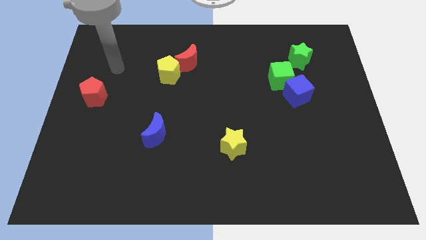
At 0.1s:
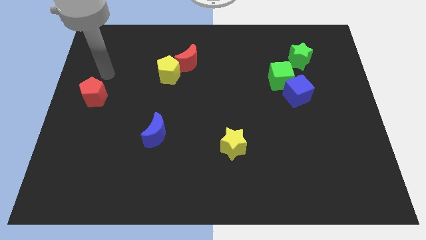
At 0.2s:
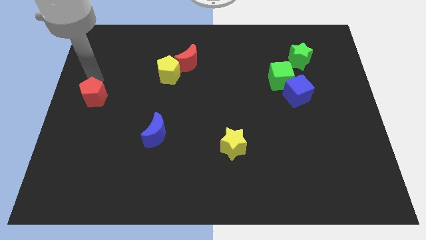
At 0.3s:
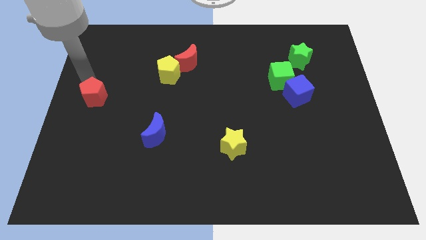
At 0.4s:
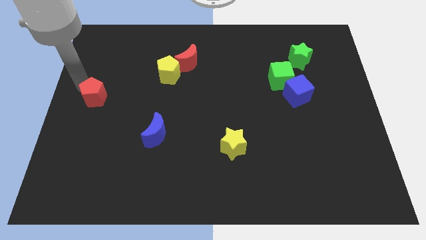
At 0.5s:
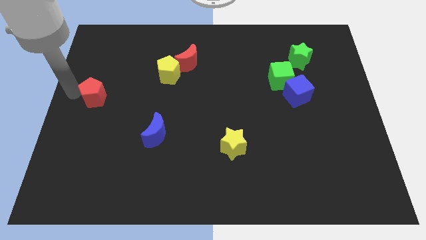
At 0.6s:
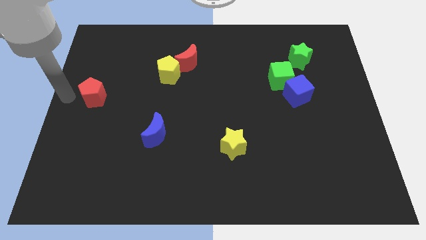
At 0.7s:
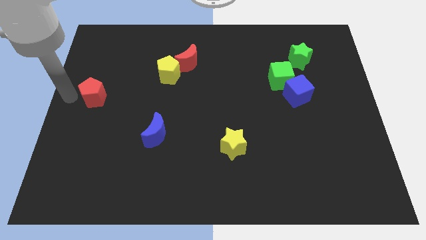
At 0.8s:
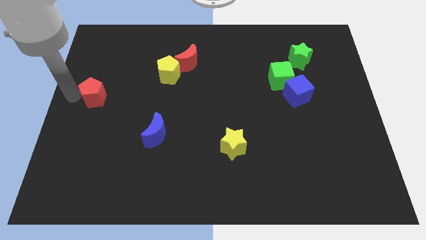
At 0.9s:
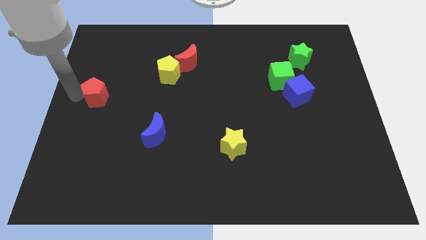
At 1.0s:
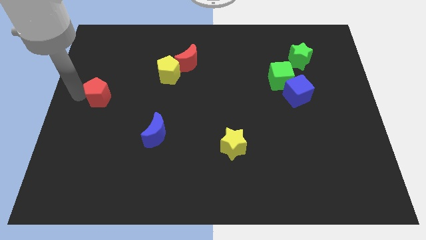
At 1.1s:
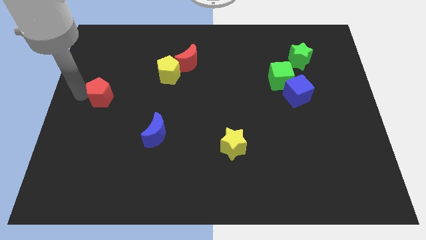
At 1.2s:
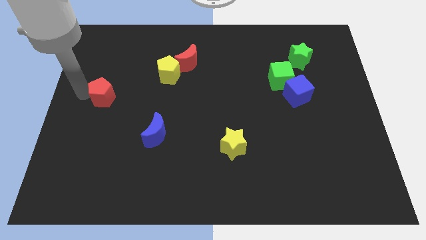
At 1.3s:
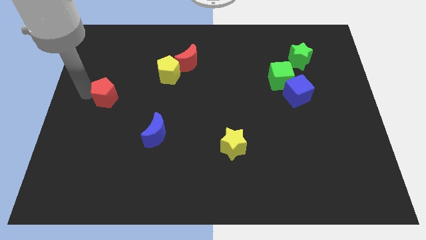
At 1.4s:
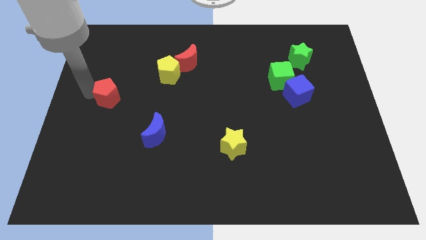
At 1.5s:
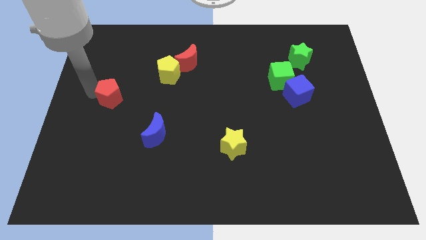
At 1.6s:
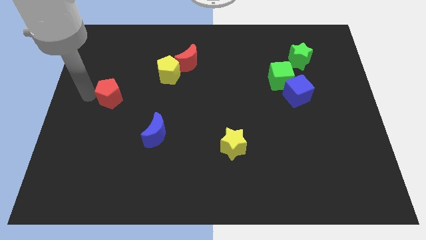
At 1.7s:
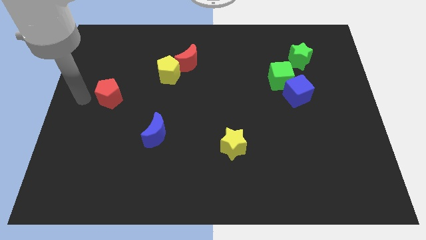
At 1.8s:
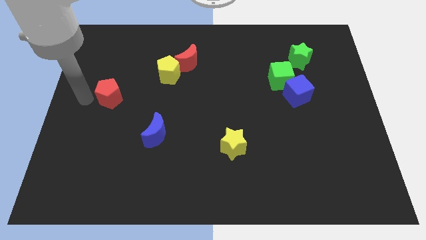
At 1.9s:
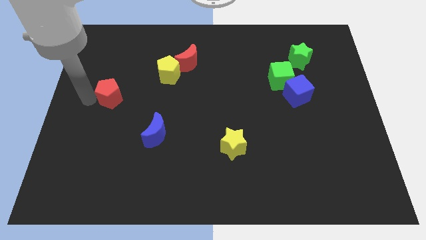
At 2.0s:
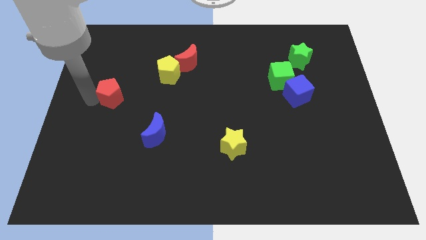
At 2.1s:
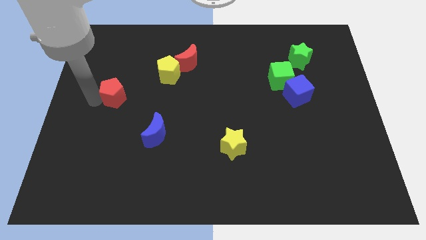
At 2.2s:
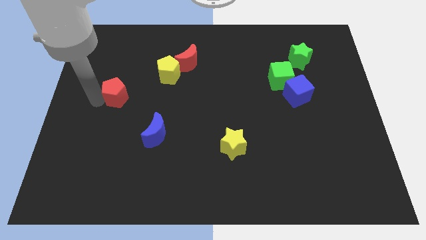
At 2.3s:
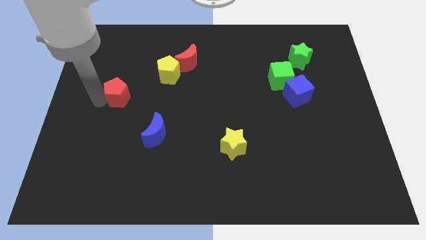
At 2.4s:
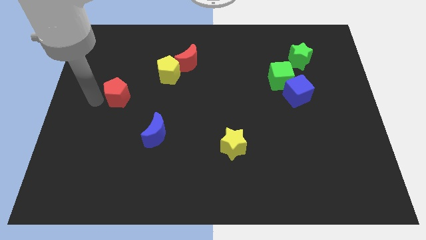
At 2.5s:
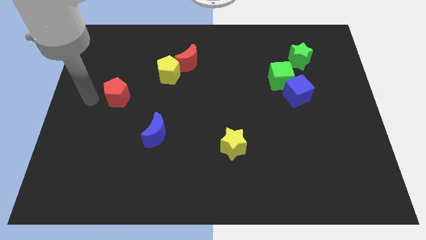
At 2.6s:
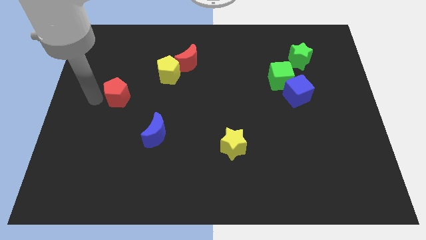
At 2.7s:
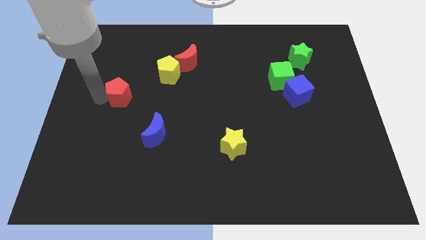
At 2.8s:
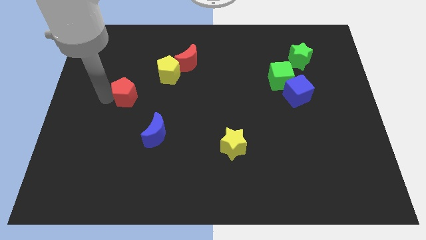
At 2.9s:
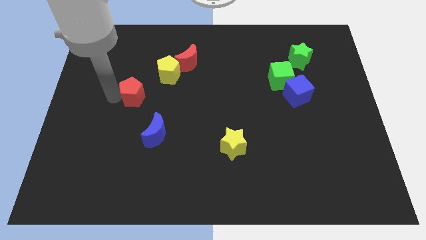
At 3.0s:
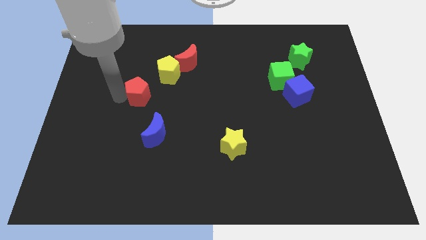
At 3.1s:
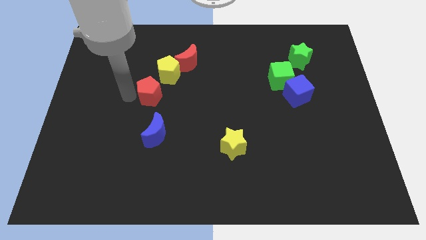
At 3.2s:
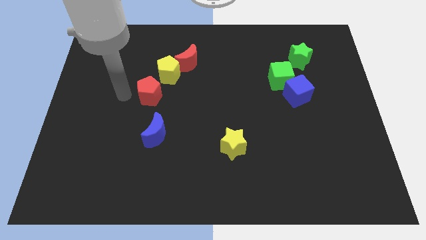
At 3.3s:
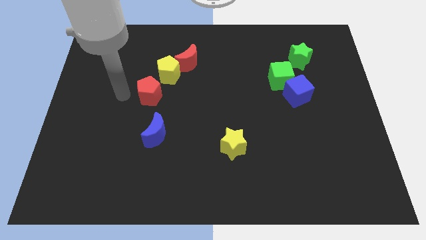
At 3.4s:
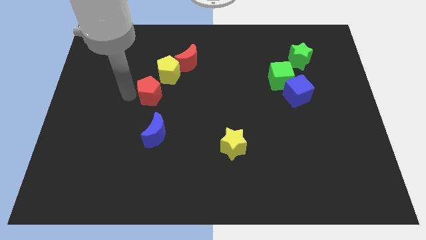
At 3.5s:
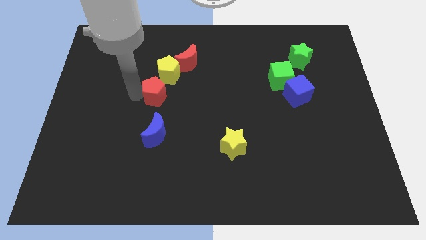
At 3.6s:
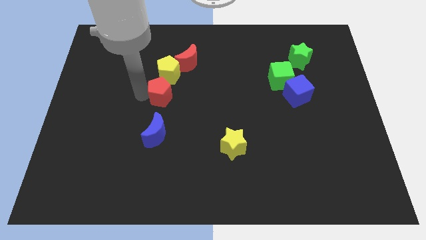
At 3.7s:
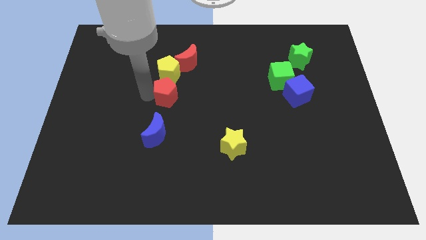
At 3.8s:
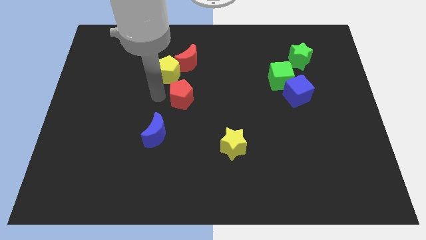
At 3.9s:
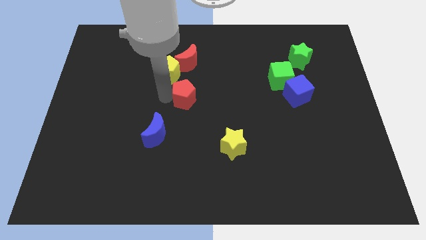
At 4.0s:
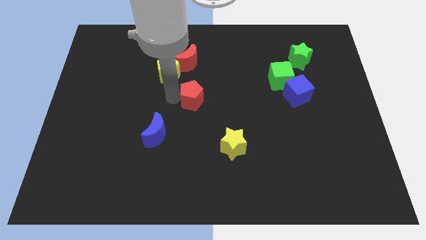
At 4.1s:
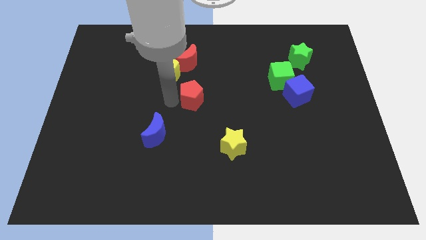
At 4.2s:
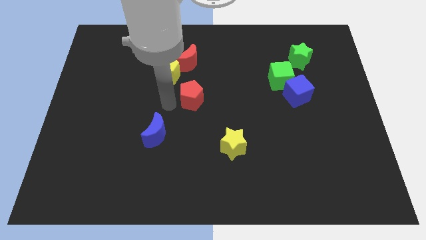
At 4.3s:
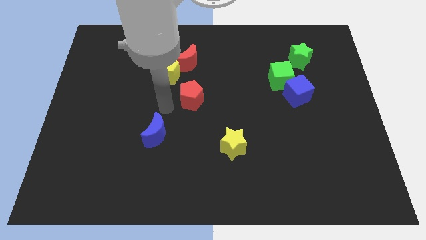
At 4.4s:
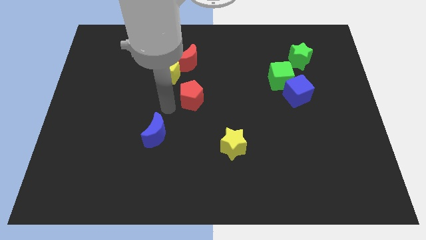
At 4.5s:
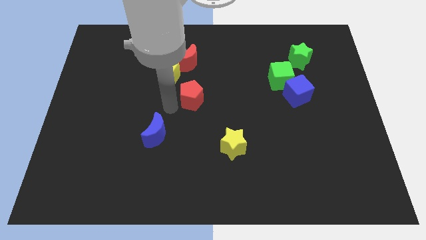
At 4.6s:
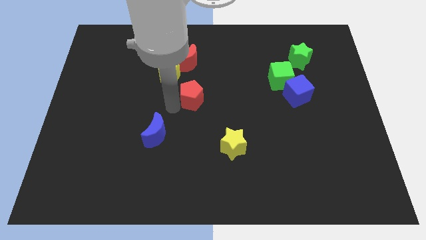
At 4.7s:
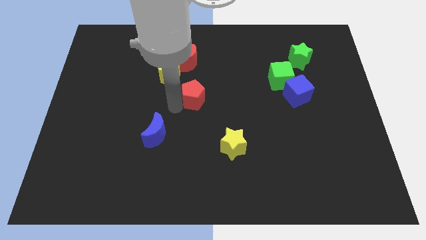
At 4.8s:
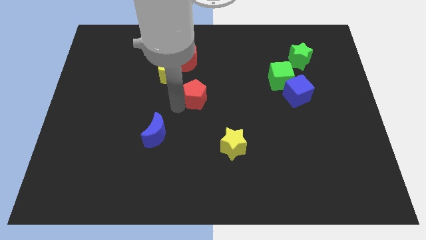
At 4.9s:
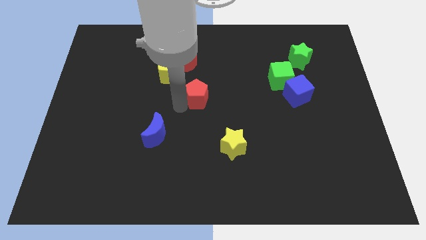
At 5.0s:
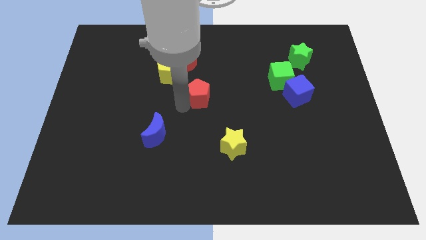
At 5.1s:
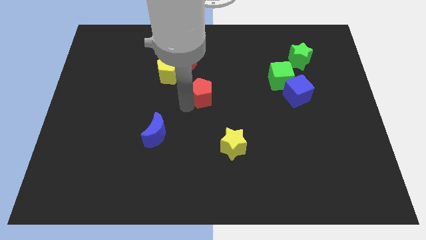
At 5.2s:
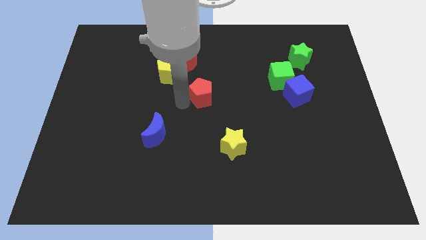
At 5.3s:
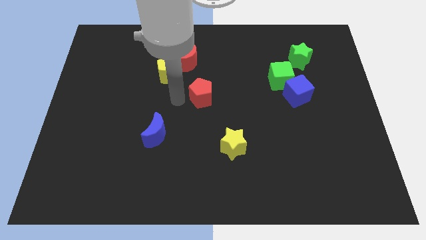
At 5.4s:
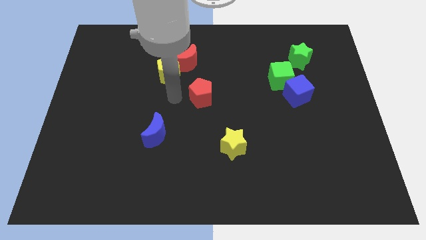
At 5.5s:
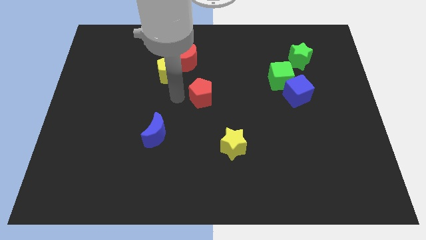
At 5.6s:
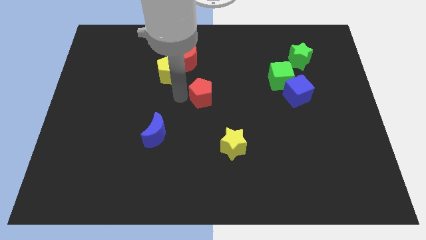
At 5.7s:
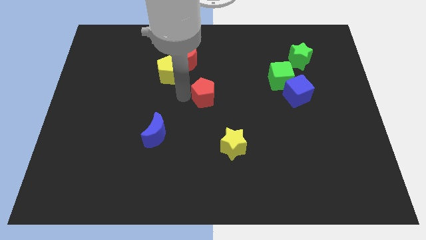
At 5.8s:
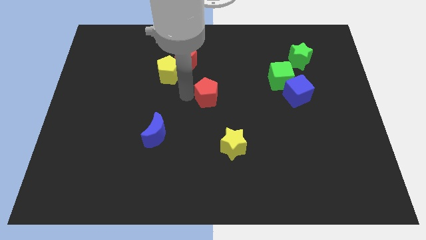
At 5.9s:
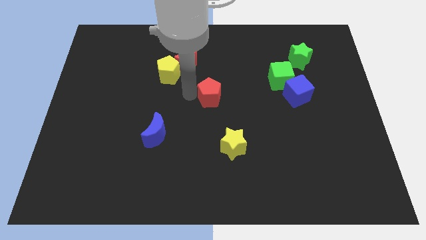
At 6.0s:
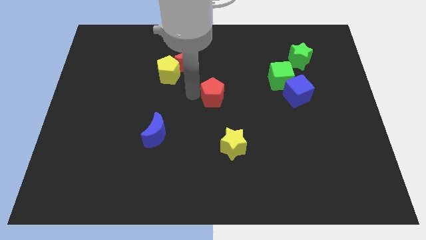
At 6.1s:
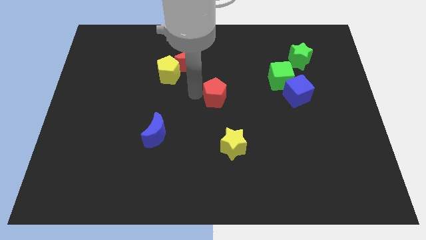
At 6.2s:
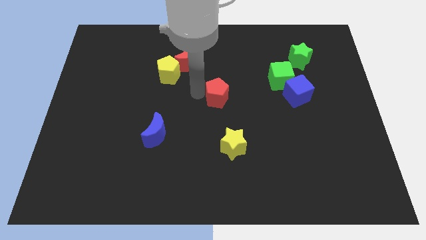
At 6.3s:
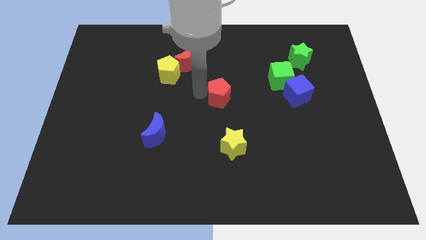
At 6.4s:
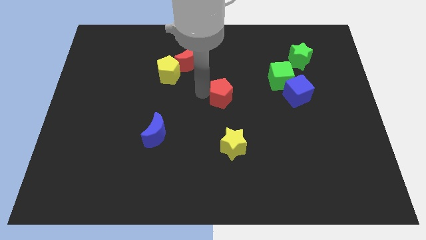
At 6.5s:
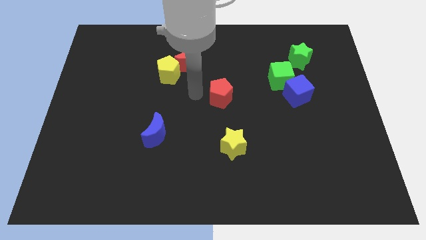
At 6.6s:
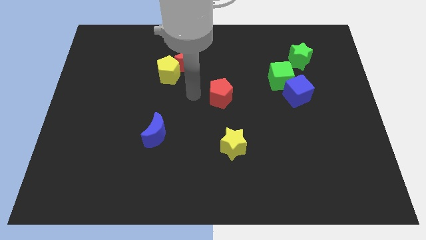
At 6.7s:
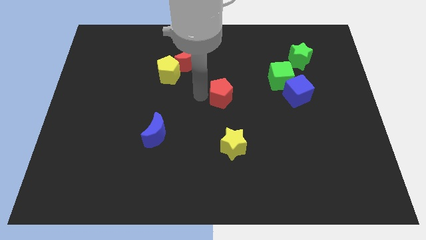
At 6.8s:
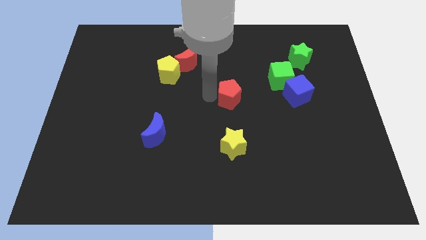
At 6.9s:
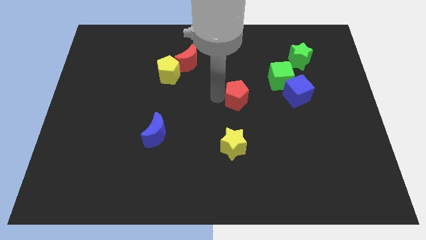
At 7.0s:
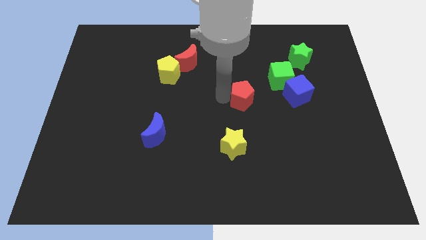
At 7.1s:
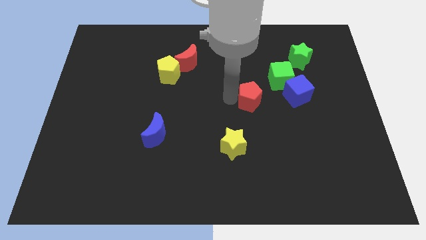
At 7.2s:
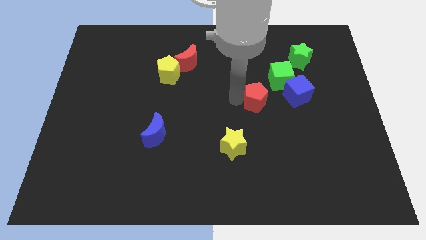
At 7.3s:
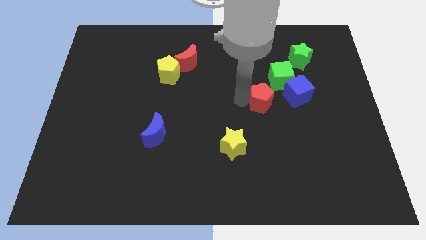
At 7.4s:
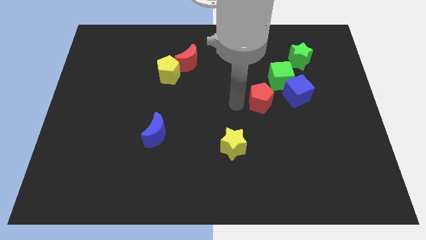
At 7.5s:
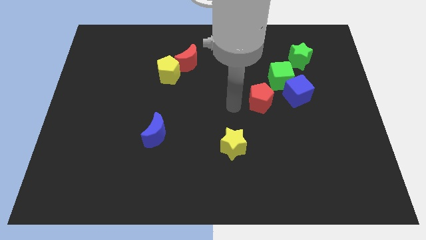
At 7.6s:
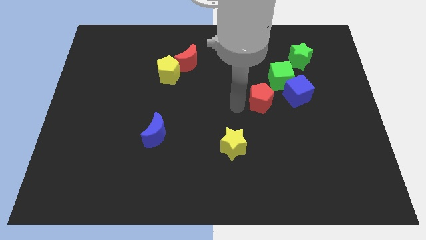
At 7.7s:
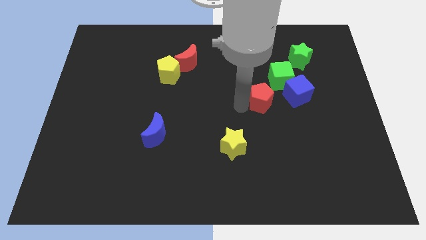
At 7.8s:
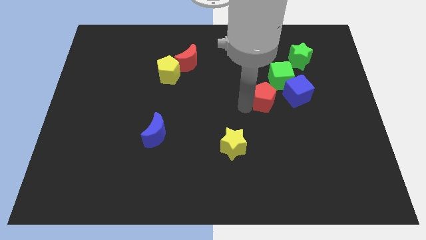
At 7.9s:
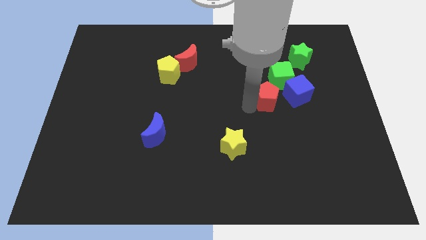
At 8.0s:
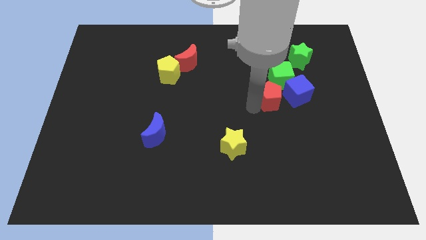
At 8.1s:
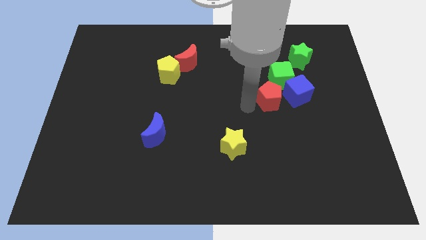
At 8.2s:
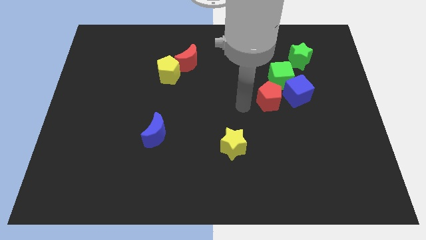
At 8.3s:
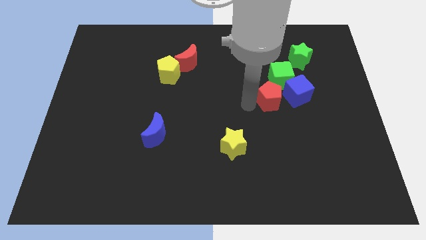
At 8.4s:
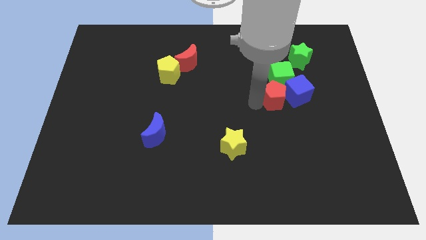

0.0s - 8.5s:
move the red pentagon towards the blue cube
